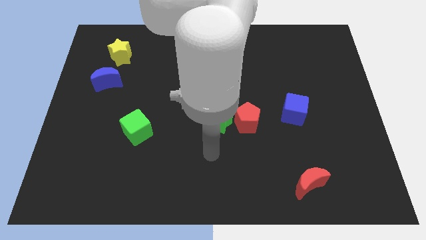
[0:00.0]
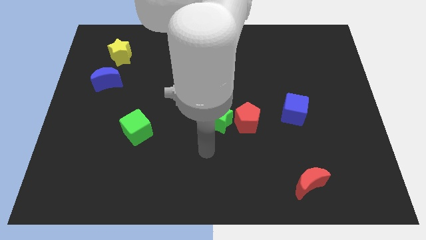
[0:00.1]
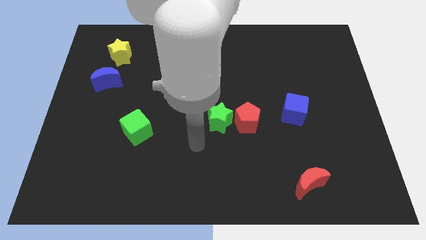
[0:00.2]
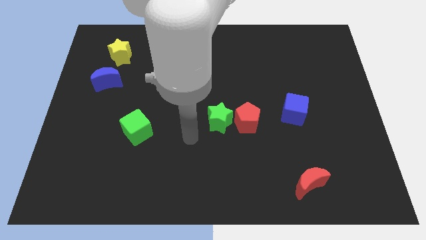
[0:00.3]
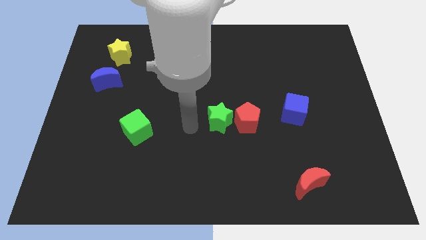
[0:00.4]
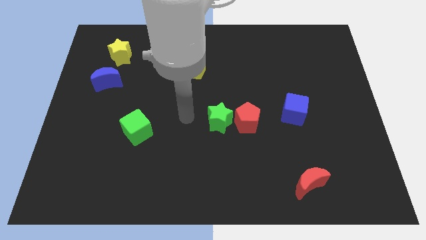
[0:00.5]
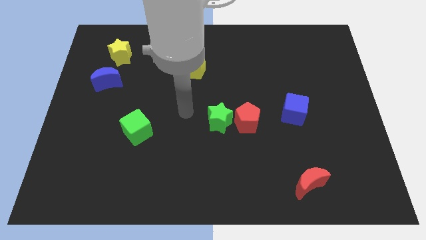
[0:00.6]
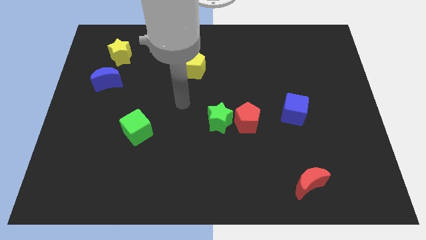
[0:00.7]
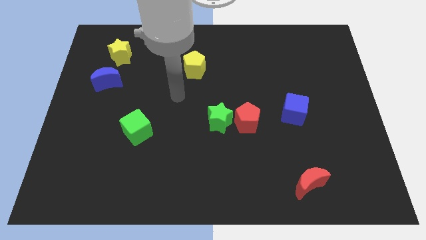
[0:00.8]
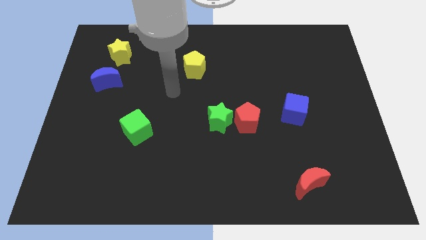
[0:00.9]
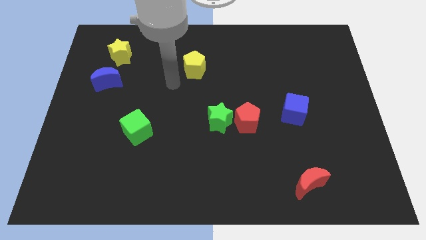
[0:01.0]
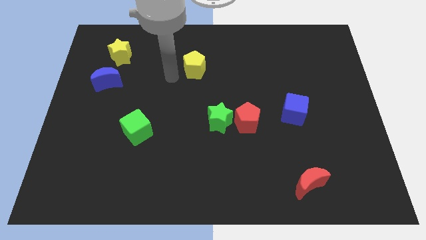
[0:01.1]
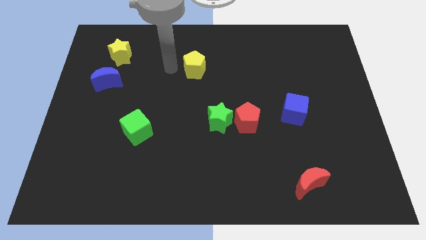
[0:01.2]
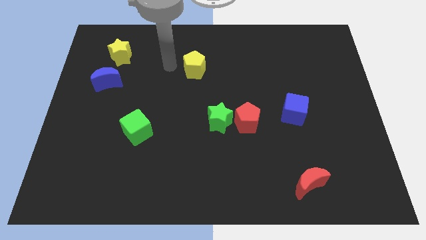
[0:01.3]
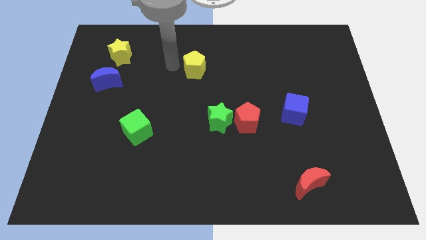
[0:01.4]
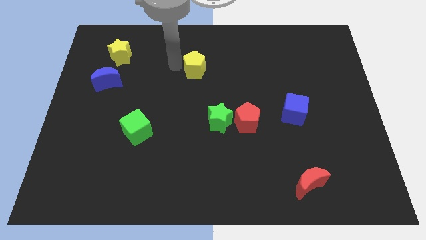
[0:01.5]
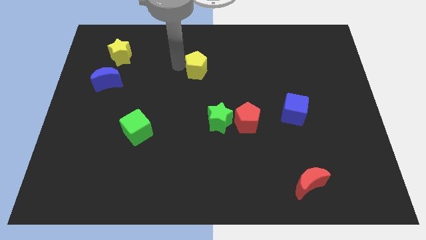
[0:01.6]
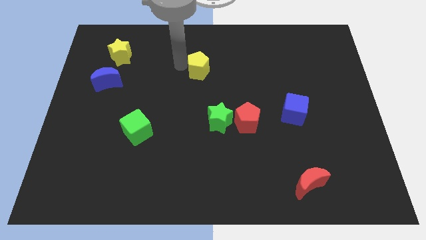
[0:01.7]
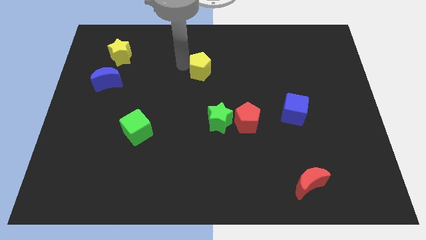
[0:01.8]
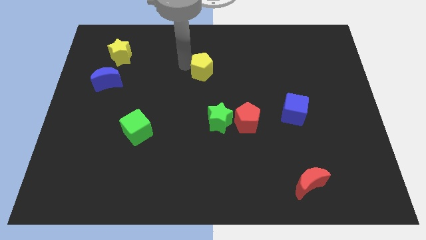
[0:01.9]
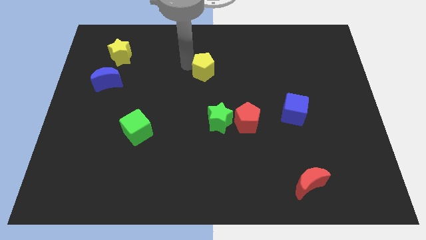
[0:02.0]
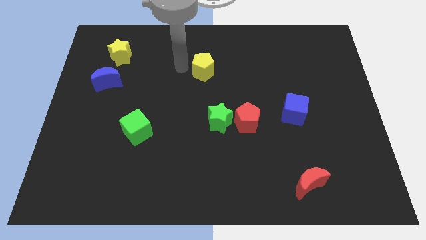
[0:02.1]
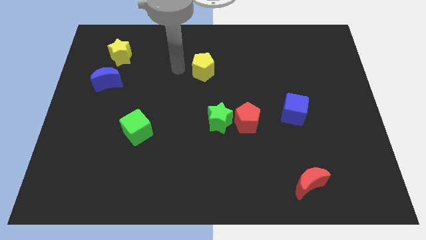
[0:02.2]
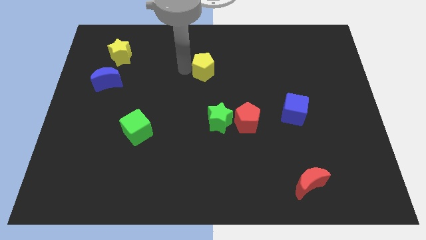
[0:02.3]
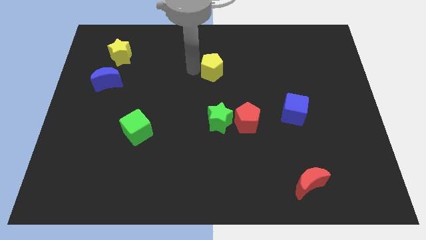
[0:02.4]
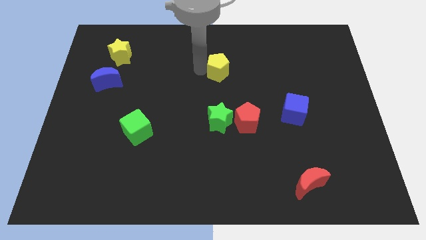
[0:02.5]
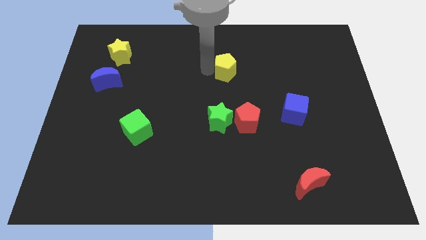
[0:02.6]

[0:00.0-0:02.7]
move the yellow pentagon slightly right

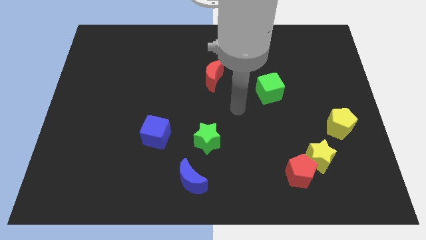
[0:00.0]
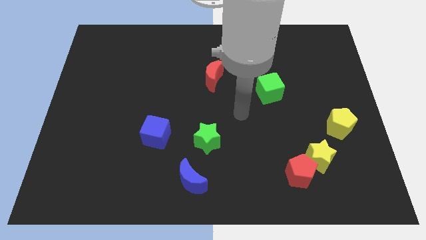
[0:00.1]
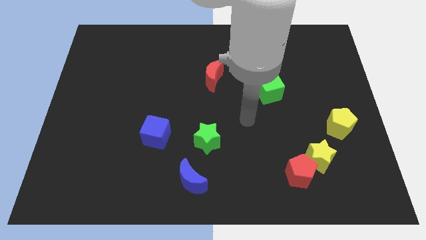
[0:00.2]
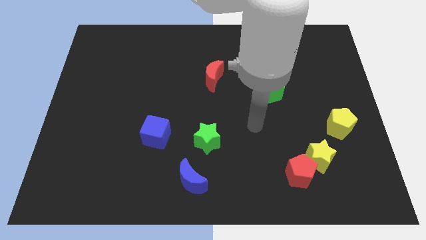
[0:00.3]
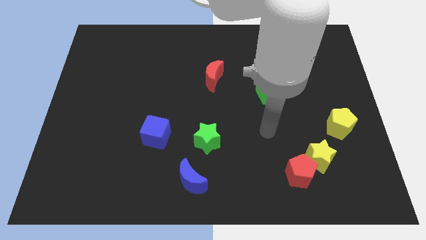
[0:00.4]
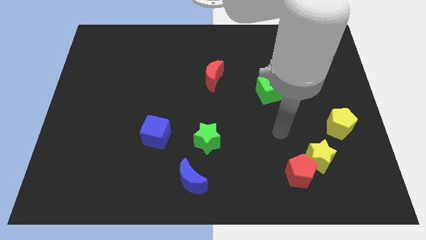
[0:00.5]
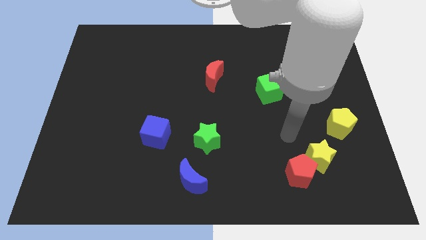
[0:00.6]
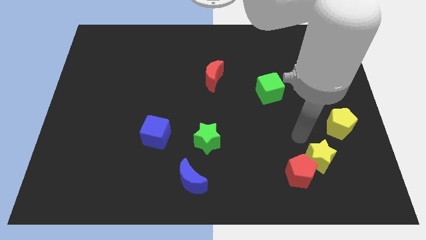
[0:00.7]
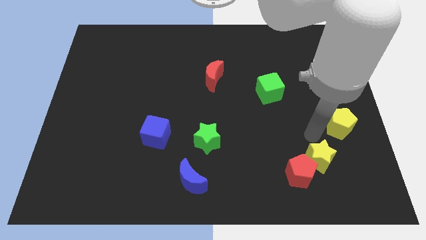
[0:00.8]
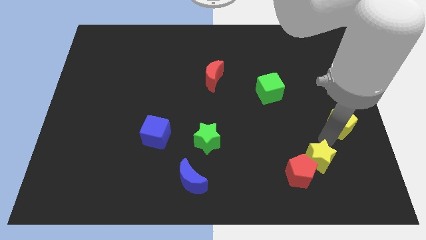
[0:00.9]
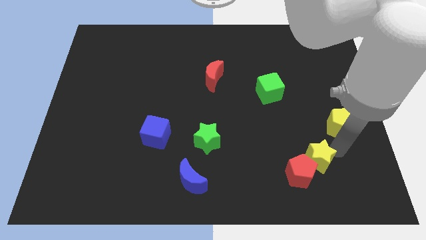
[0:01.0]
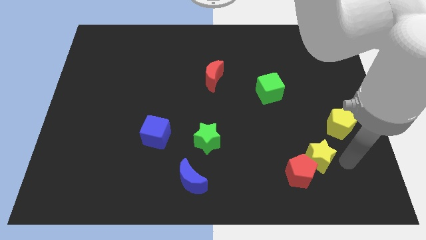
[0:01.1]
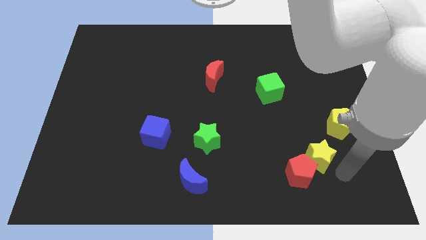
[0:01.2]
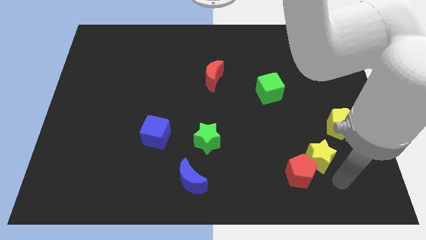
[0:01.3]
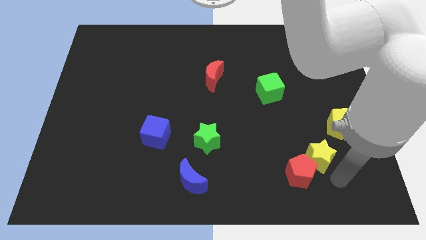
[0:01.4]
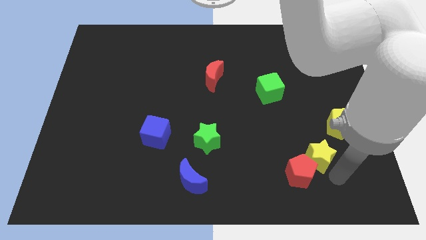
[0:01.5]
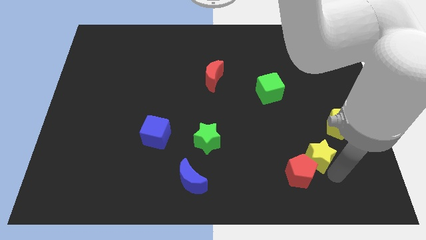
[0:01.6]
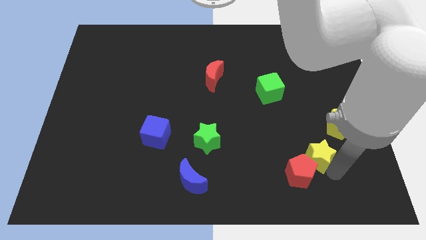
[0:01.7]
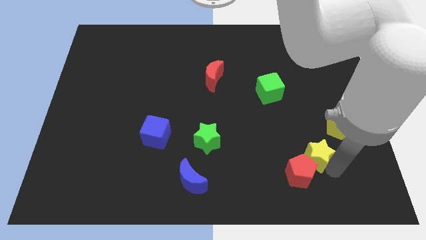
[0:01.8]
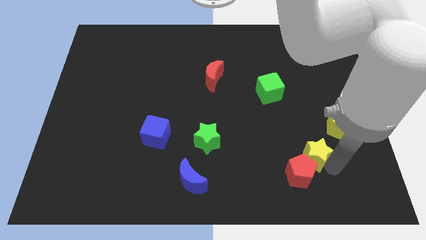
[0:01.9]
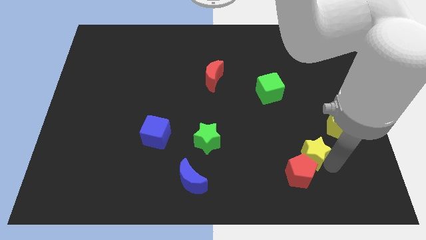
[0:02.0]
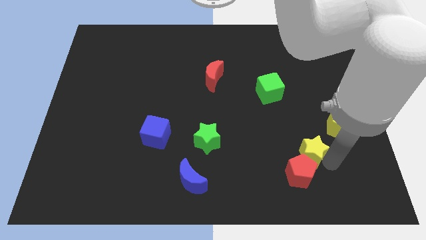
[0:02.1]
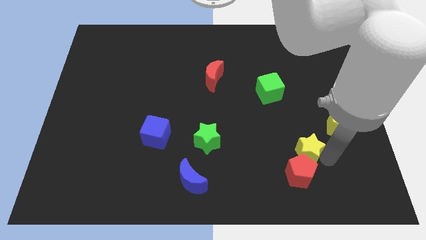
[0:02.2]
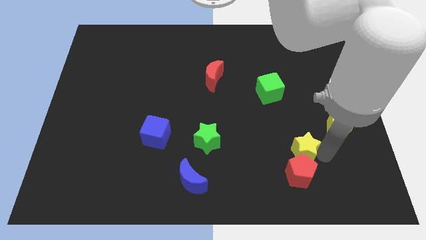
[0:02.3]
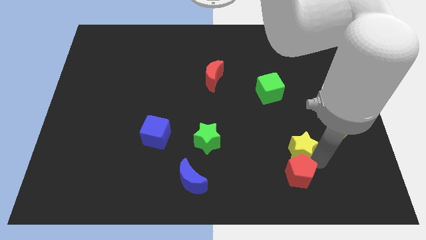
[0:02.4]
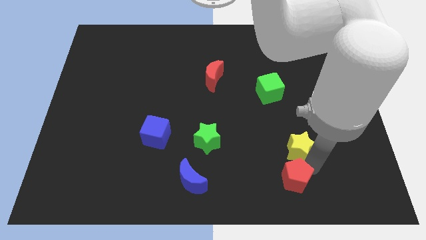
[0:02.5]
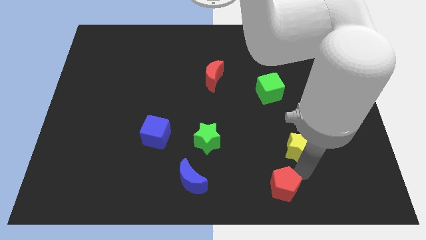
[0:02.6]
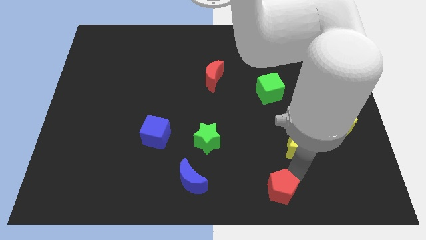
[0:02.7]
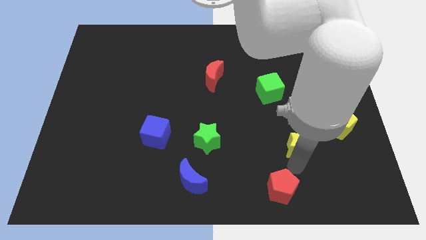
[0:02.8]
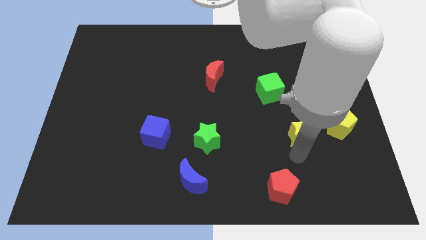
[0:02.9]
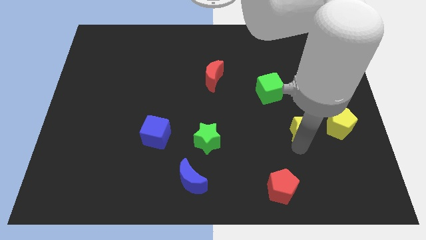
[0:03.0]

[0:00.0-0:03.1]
slightly push the yellow star upwards

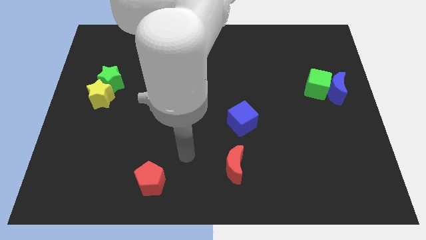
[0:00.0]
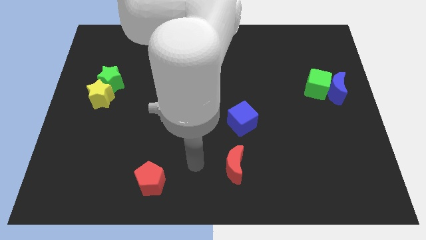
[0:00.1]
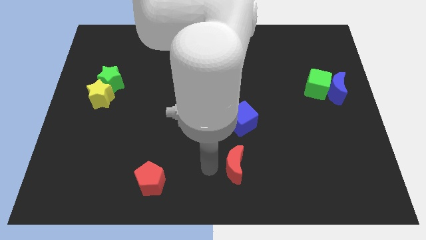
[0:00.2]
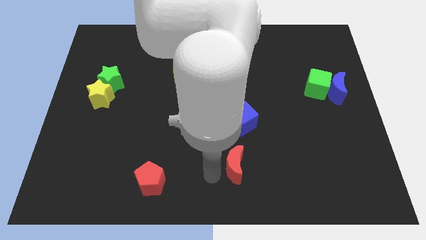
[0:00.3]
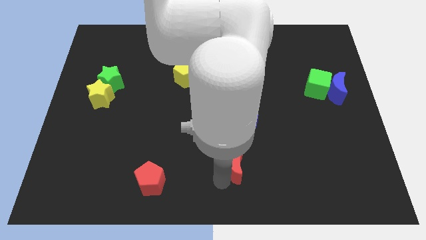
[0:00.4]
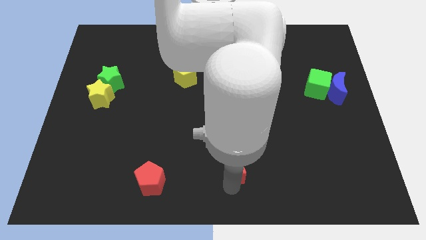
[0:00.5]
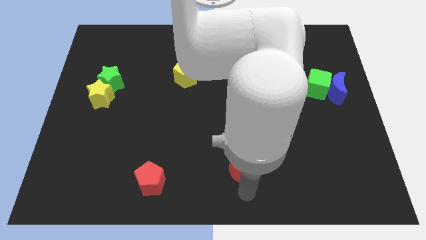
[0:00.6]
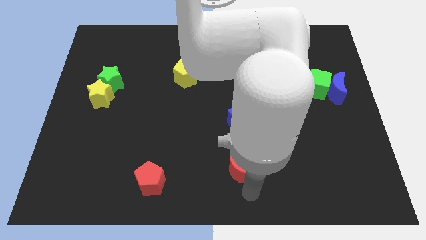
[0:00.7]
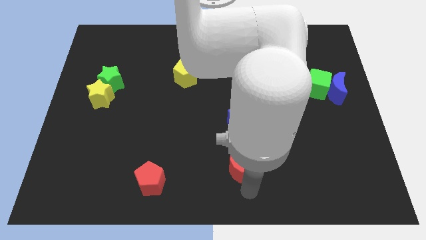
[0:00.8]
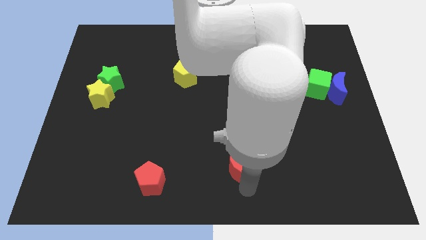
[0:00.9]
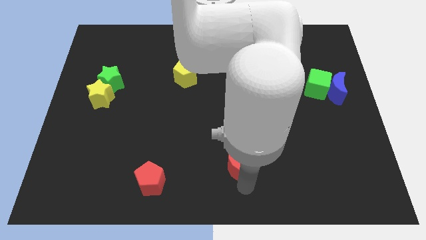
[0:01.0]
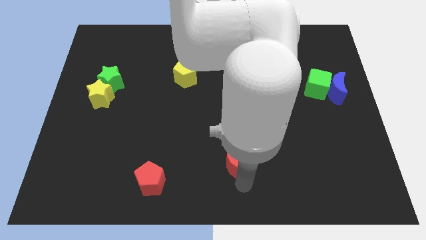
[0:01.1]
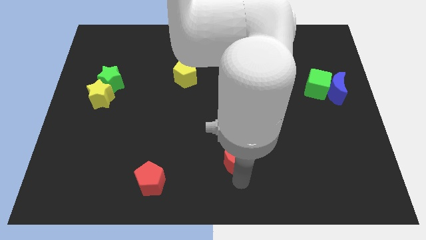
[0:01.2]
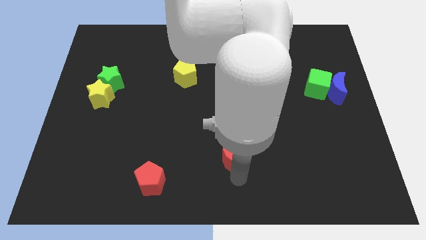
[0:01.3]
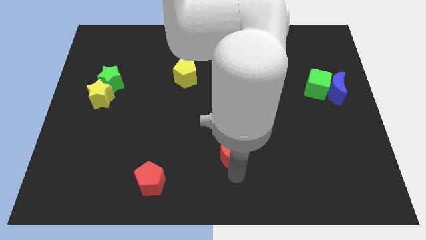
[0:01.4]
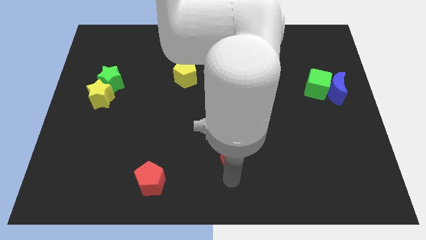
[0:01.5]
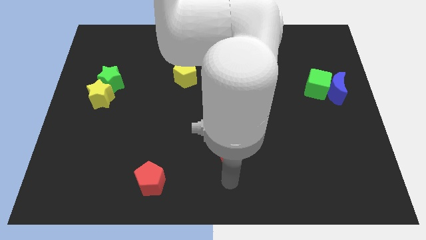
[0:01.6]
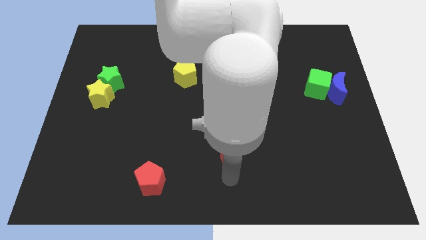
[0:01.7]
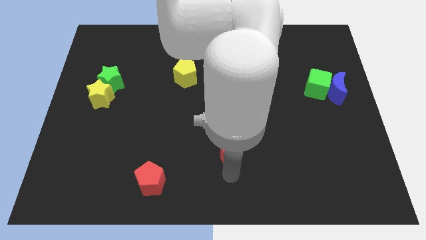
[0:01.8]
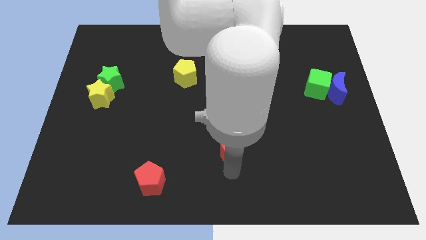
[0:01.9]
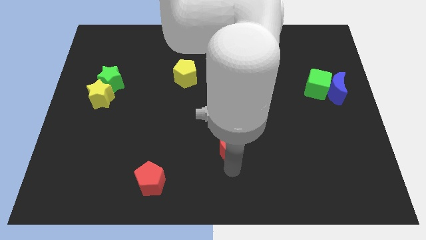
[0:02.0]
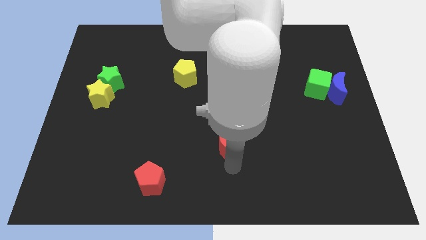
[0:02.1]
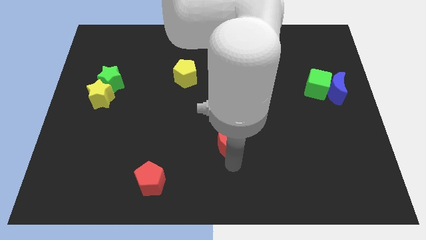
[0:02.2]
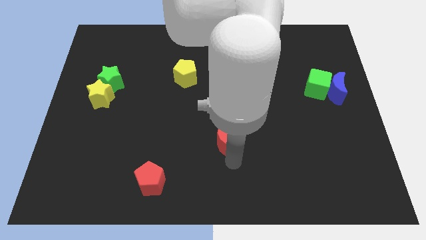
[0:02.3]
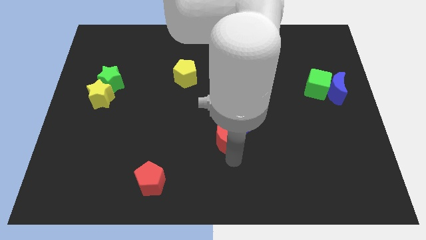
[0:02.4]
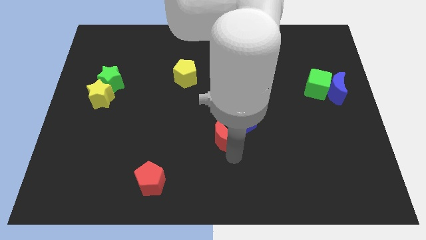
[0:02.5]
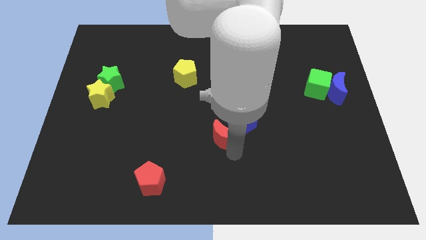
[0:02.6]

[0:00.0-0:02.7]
slide the red moon slightly upwards
